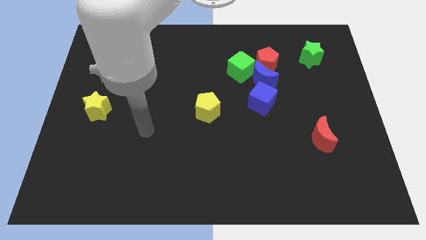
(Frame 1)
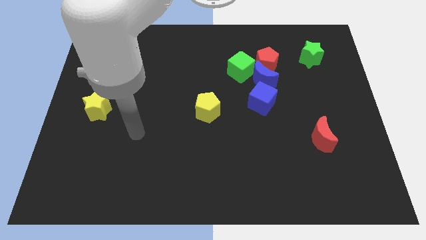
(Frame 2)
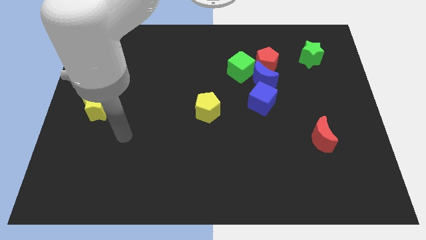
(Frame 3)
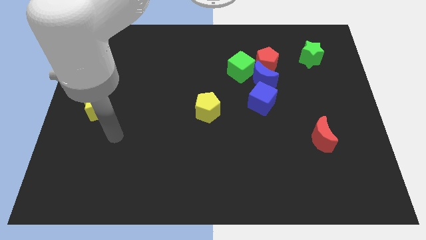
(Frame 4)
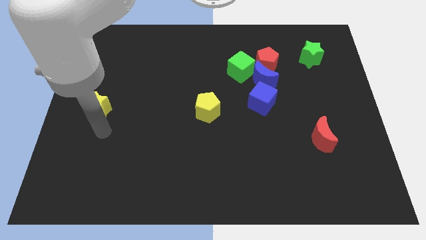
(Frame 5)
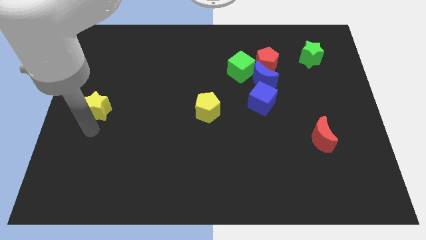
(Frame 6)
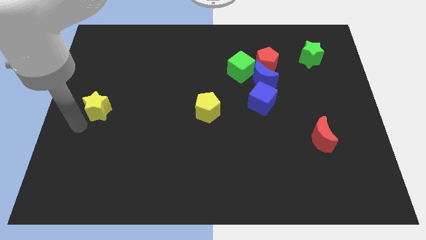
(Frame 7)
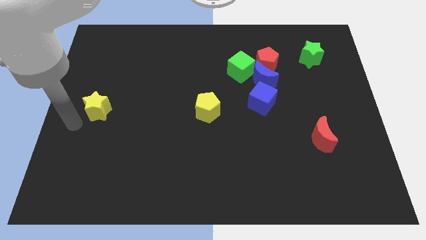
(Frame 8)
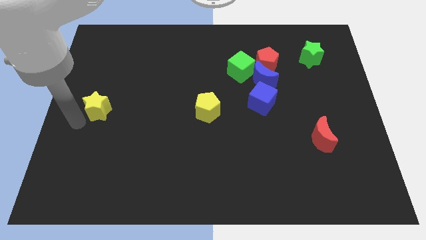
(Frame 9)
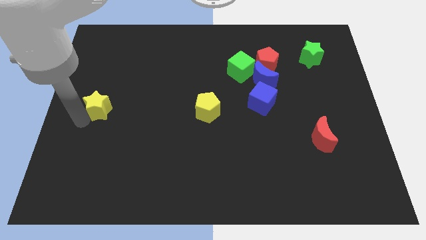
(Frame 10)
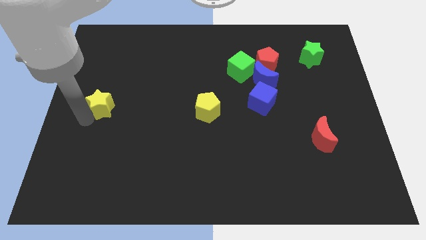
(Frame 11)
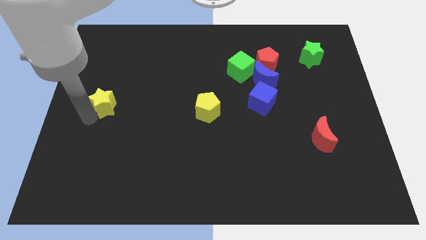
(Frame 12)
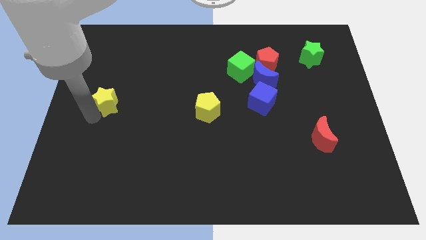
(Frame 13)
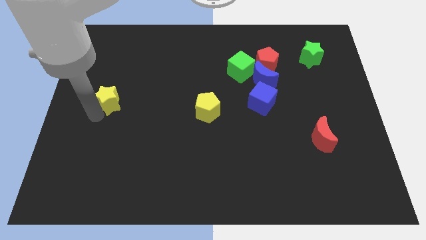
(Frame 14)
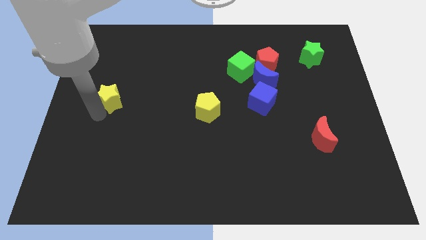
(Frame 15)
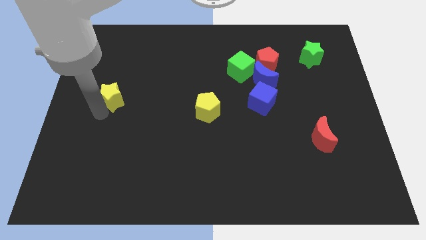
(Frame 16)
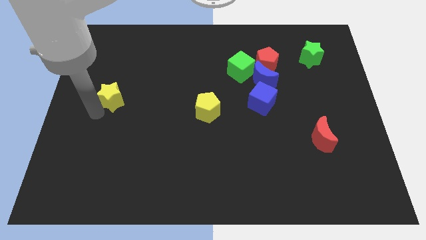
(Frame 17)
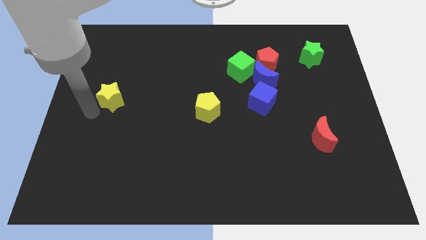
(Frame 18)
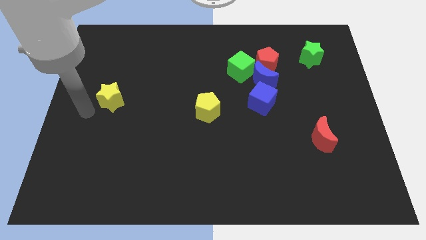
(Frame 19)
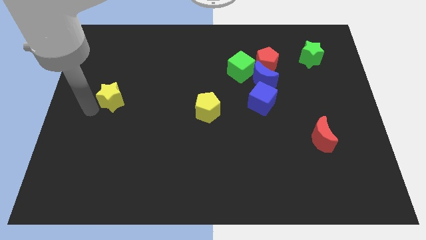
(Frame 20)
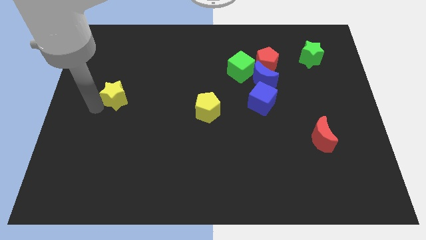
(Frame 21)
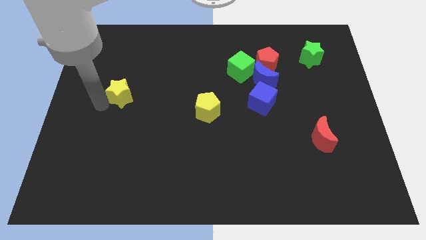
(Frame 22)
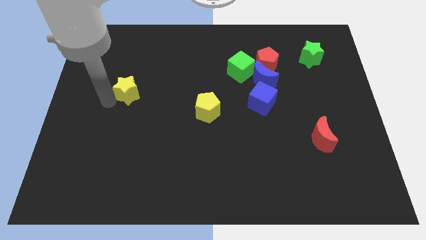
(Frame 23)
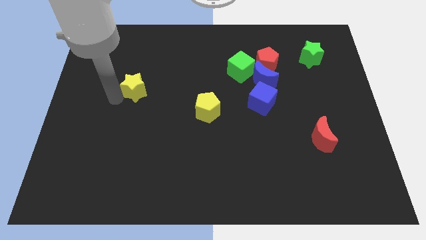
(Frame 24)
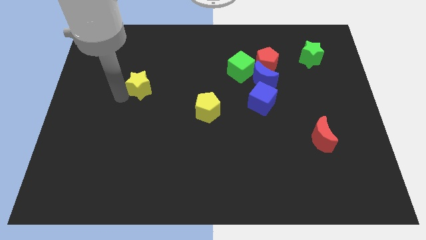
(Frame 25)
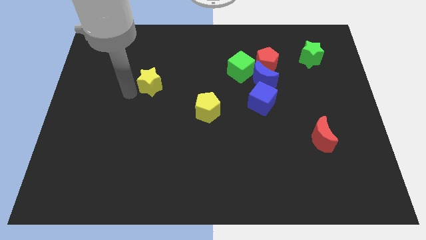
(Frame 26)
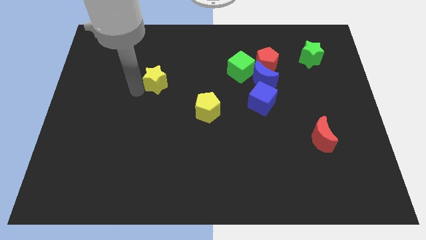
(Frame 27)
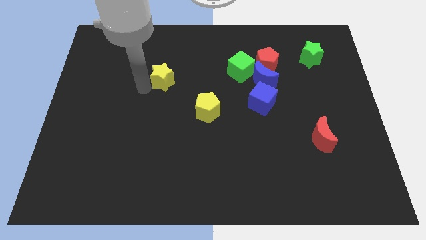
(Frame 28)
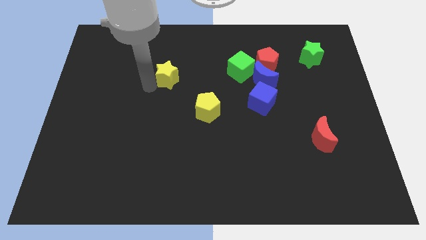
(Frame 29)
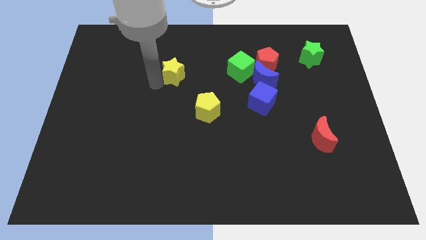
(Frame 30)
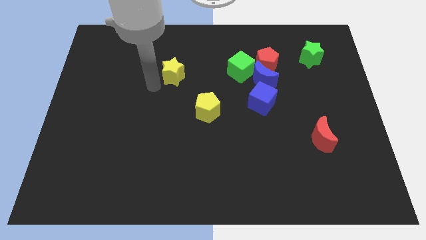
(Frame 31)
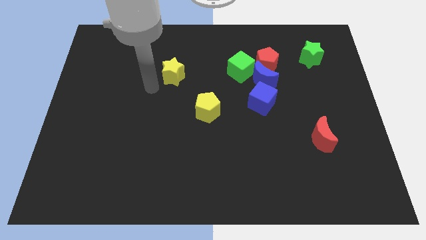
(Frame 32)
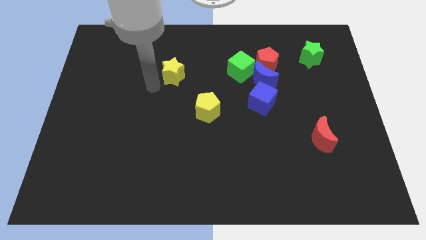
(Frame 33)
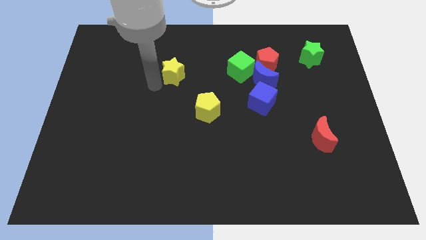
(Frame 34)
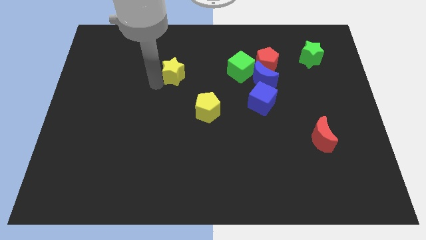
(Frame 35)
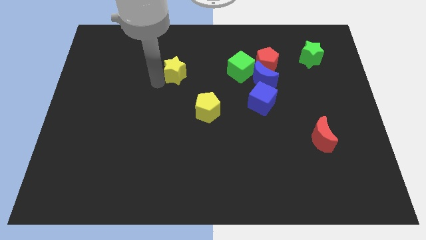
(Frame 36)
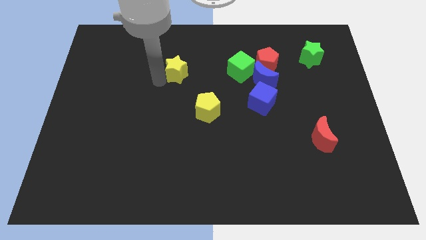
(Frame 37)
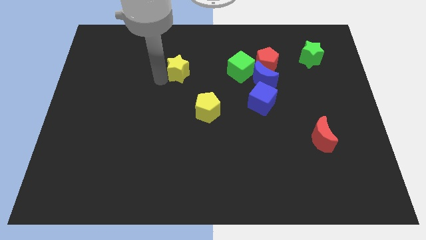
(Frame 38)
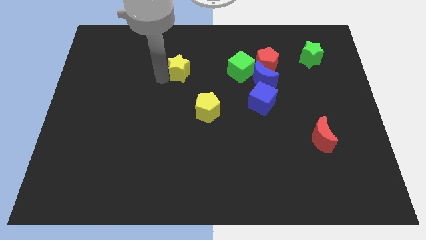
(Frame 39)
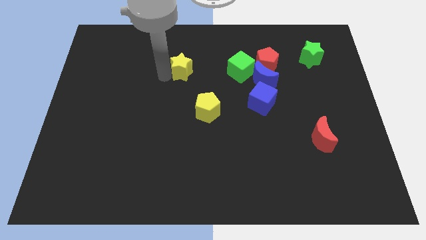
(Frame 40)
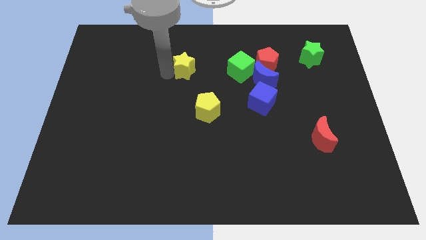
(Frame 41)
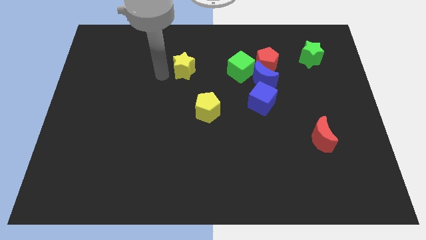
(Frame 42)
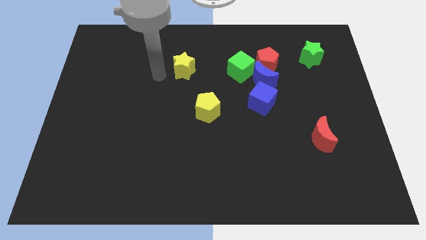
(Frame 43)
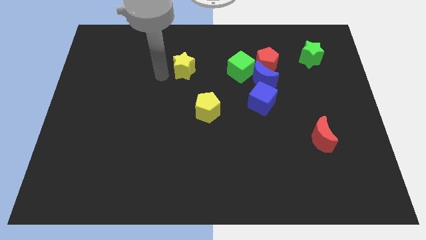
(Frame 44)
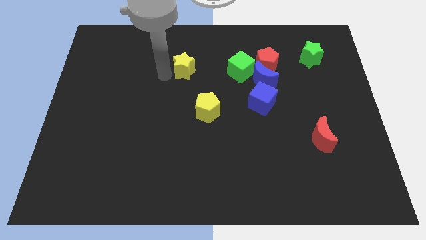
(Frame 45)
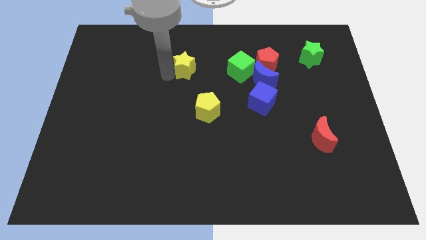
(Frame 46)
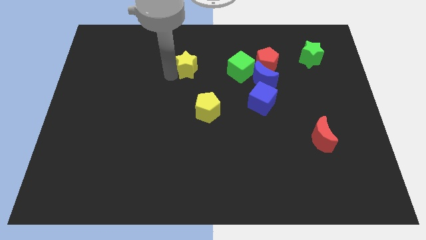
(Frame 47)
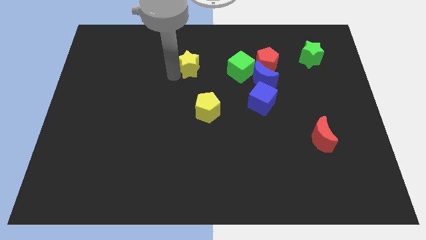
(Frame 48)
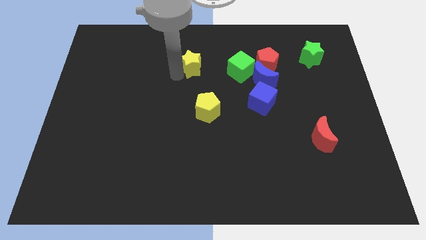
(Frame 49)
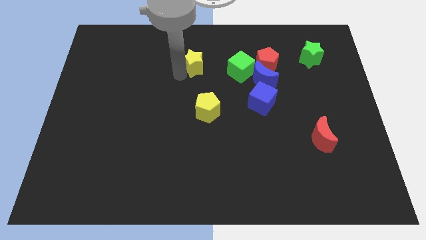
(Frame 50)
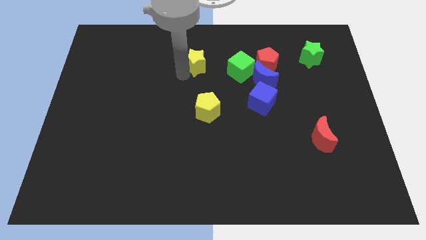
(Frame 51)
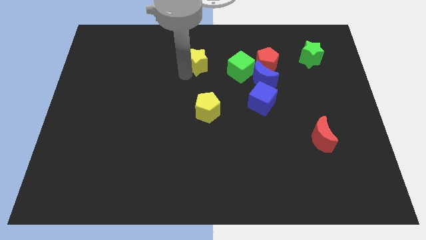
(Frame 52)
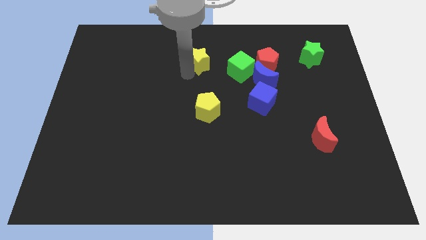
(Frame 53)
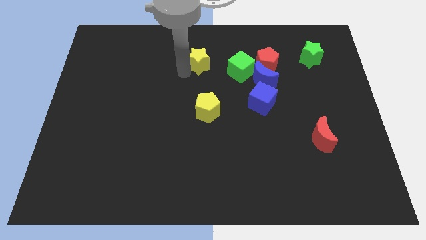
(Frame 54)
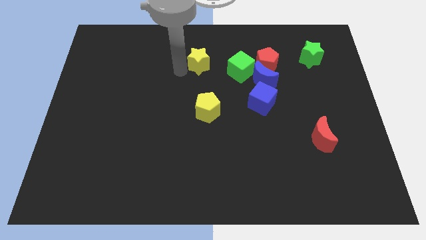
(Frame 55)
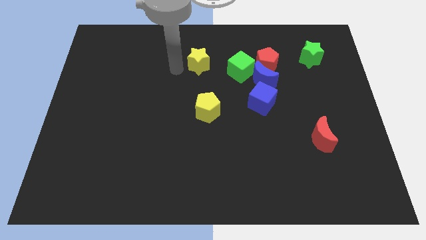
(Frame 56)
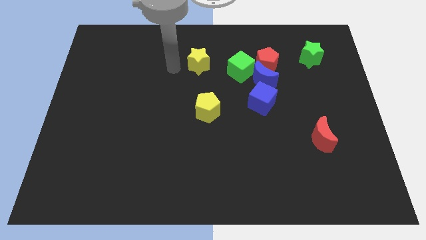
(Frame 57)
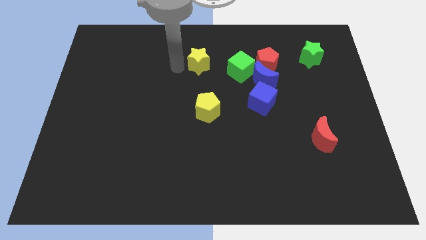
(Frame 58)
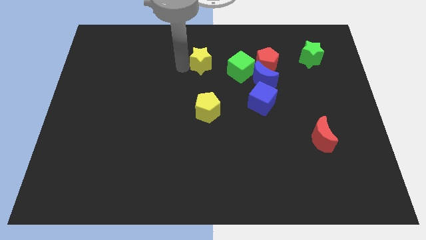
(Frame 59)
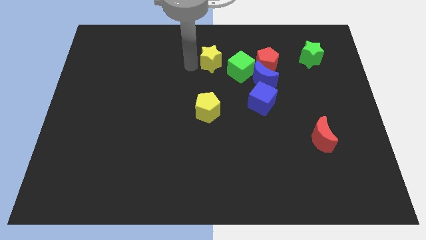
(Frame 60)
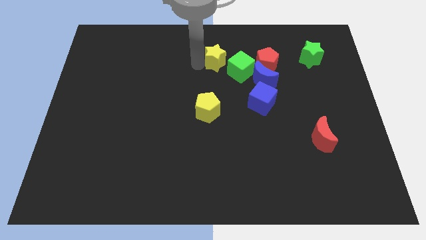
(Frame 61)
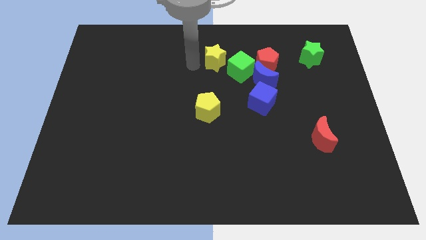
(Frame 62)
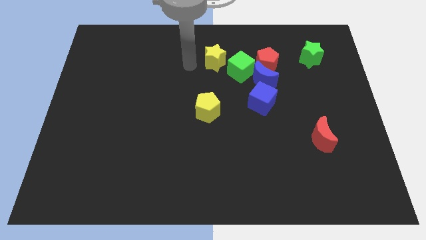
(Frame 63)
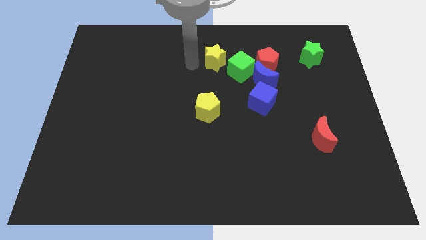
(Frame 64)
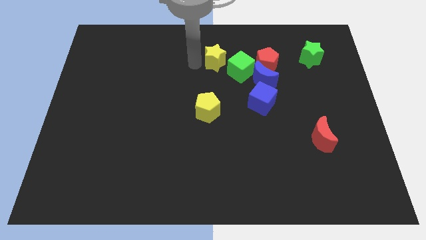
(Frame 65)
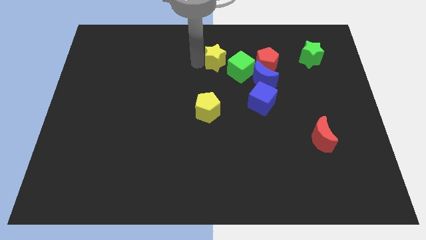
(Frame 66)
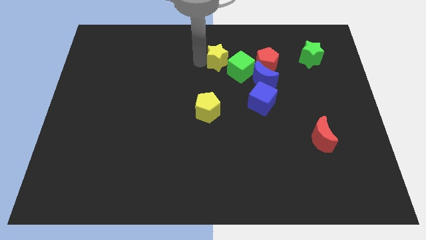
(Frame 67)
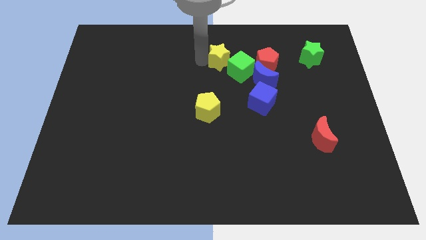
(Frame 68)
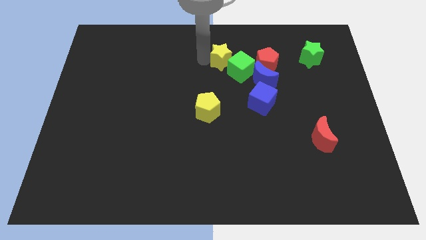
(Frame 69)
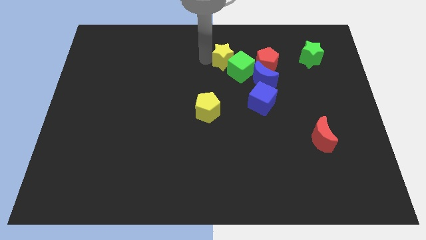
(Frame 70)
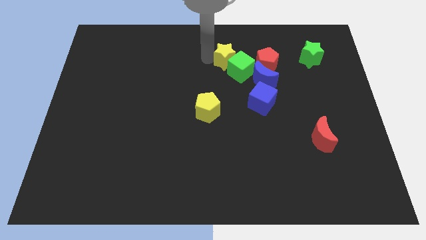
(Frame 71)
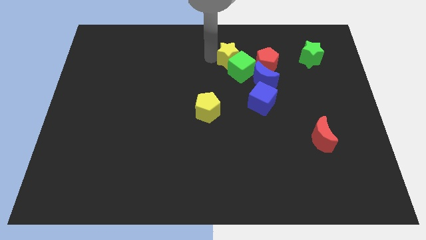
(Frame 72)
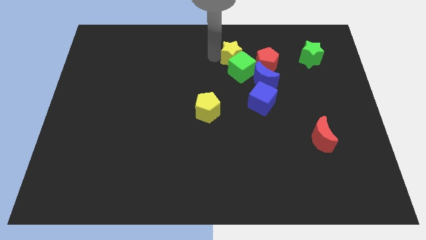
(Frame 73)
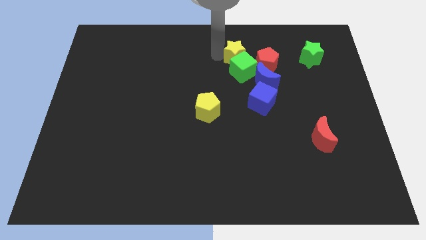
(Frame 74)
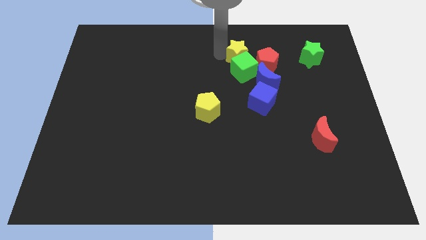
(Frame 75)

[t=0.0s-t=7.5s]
slide the yellow star to the top right of the green cube
